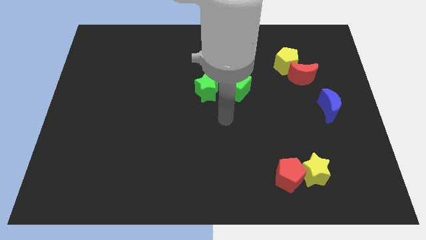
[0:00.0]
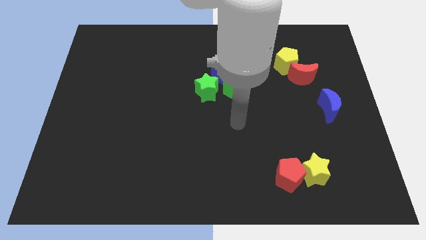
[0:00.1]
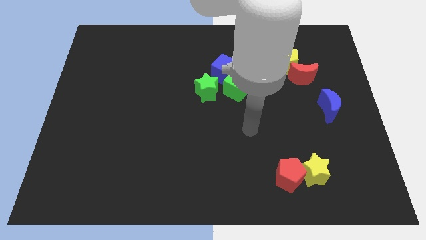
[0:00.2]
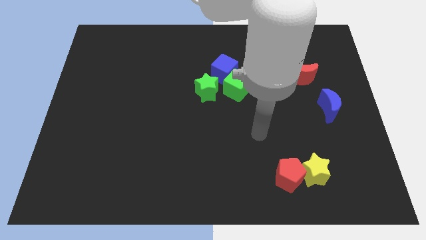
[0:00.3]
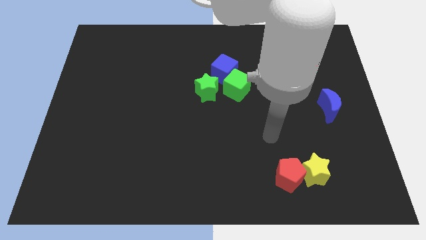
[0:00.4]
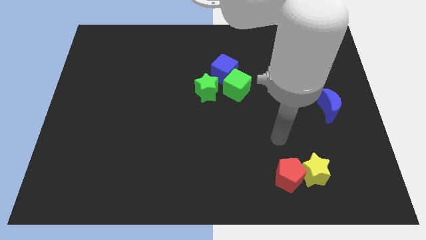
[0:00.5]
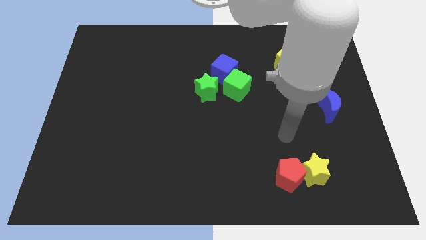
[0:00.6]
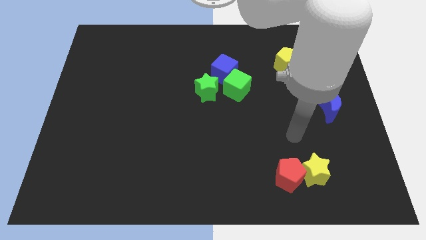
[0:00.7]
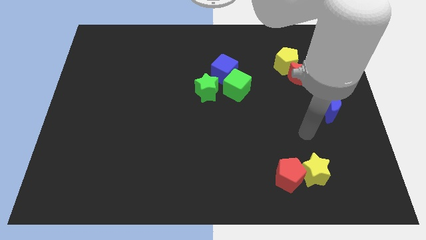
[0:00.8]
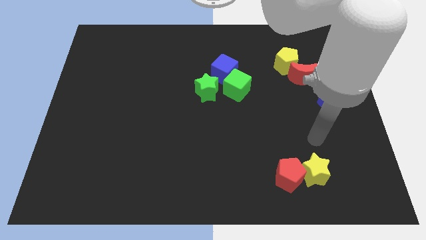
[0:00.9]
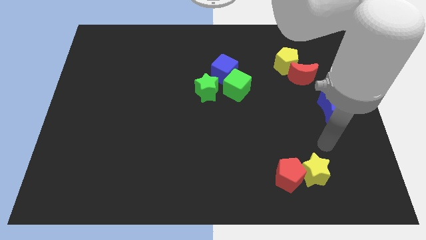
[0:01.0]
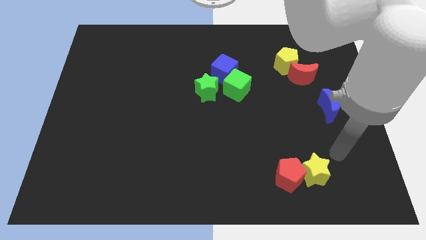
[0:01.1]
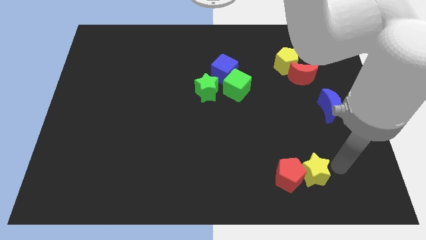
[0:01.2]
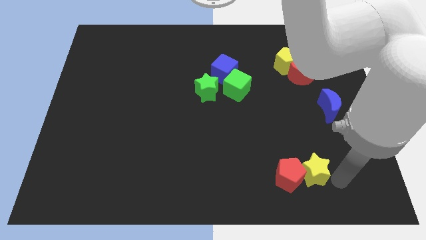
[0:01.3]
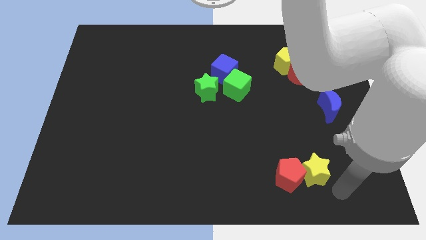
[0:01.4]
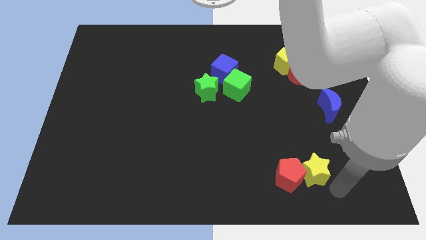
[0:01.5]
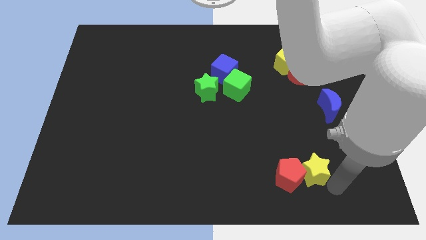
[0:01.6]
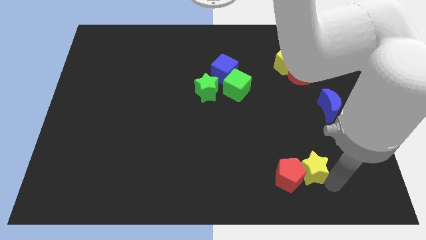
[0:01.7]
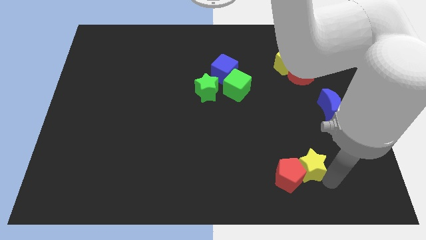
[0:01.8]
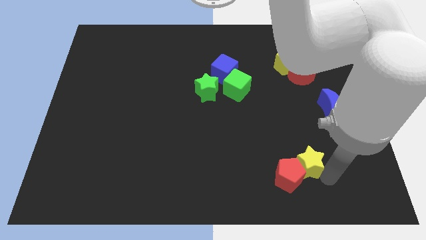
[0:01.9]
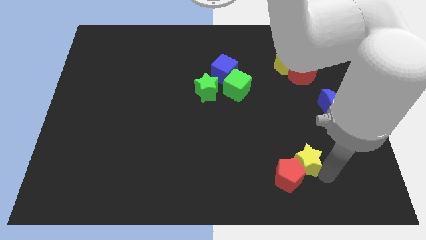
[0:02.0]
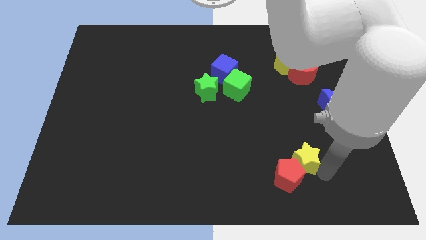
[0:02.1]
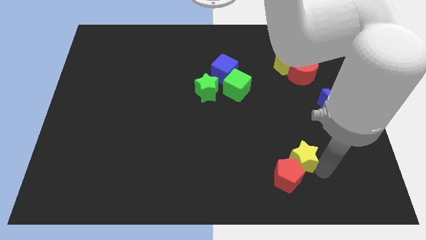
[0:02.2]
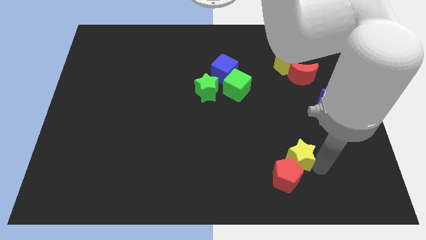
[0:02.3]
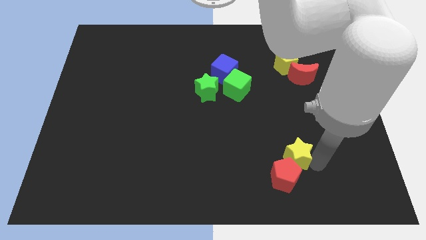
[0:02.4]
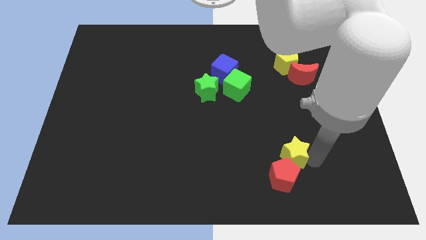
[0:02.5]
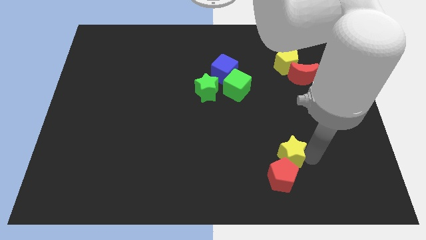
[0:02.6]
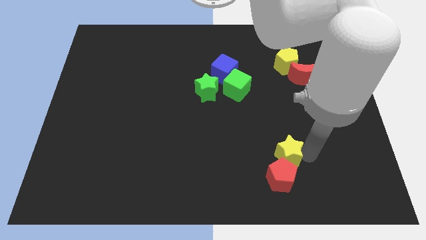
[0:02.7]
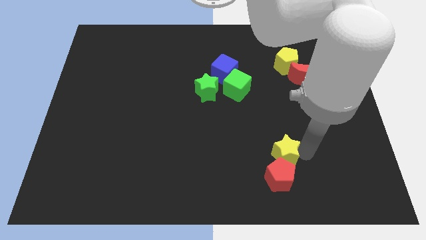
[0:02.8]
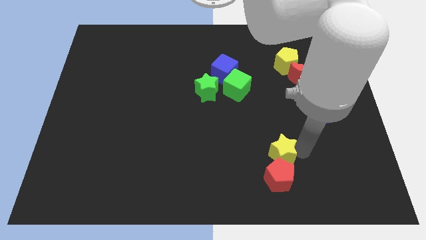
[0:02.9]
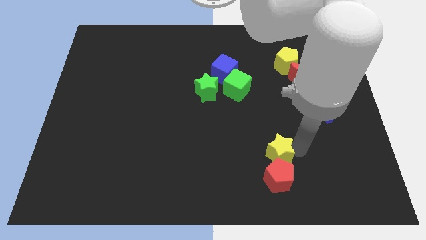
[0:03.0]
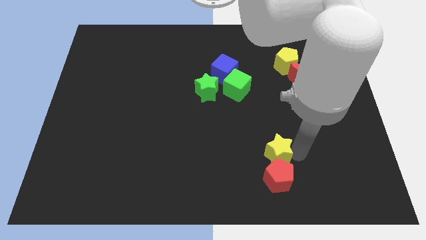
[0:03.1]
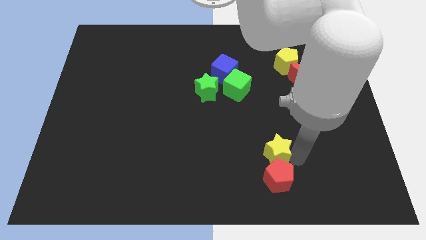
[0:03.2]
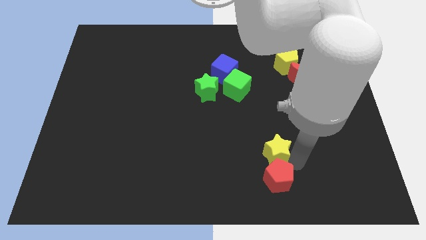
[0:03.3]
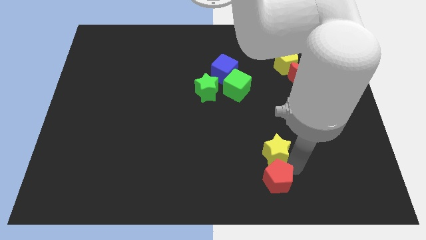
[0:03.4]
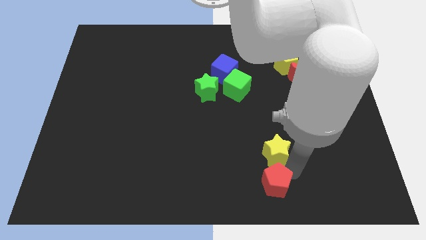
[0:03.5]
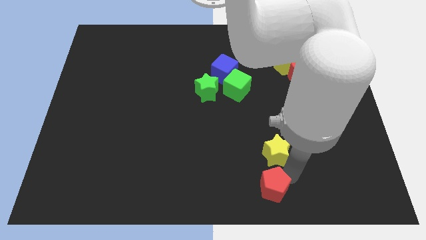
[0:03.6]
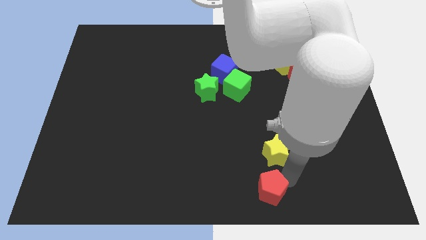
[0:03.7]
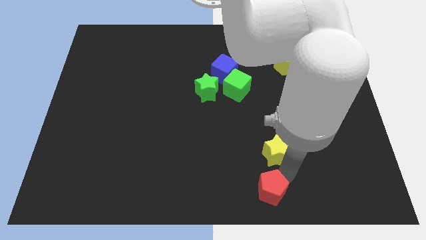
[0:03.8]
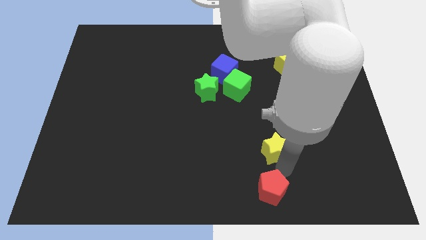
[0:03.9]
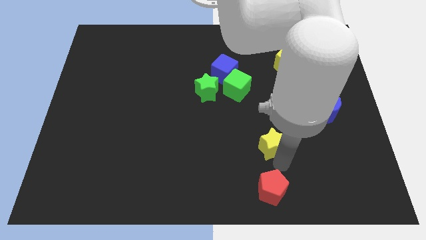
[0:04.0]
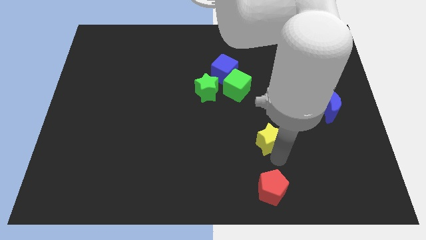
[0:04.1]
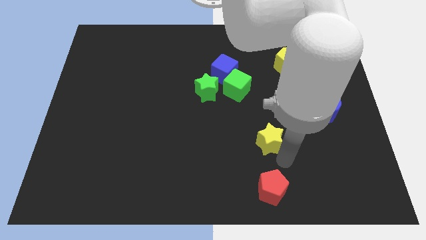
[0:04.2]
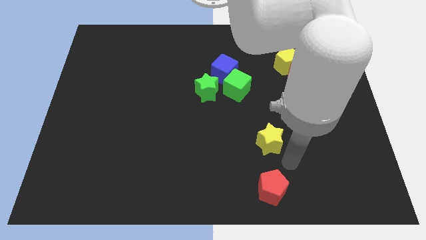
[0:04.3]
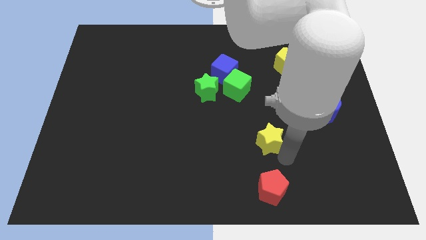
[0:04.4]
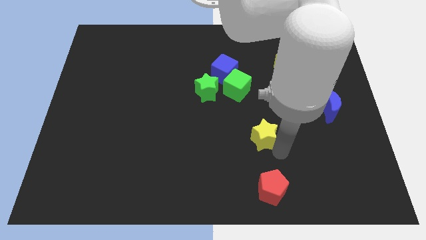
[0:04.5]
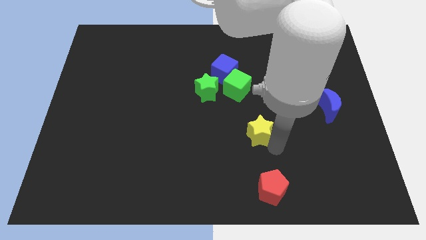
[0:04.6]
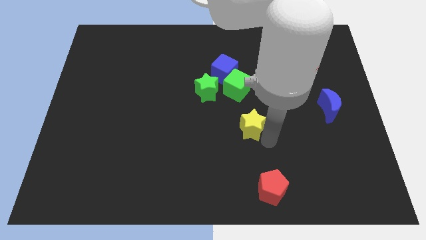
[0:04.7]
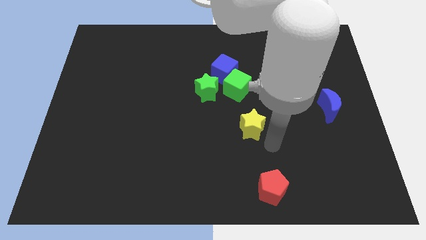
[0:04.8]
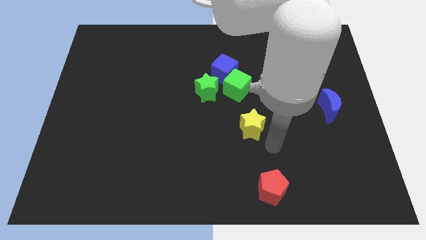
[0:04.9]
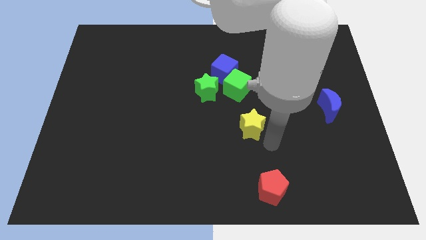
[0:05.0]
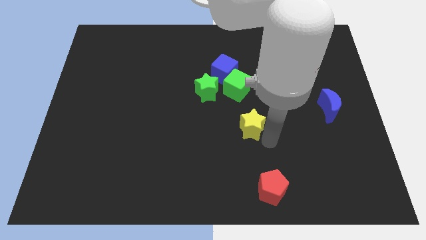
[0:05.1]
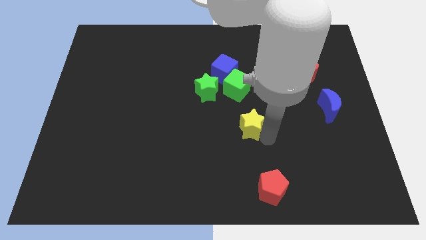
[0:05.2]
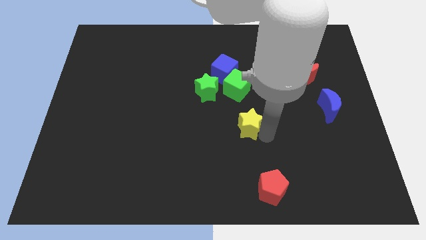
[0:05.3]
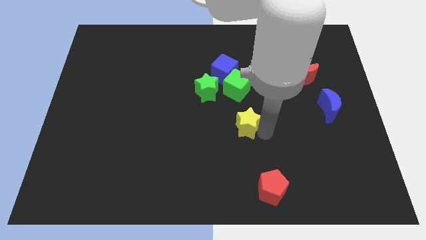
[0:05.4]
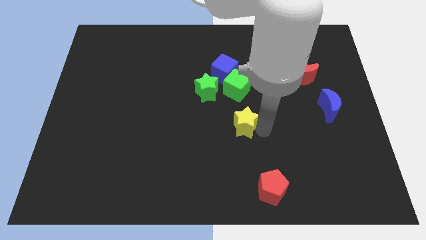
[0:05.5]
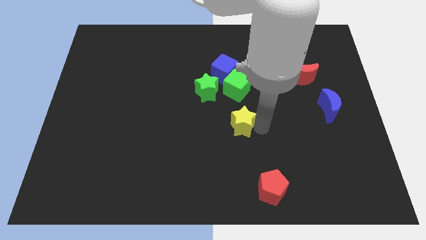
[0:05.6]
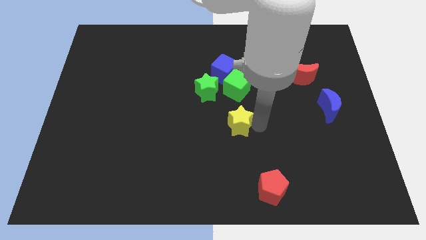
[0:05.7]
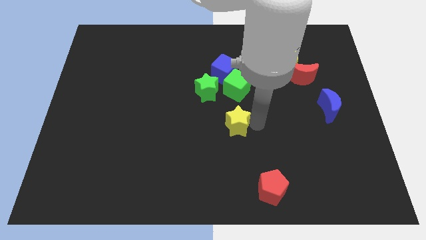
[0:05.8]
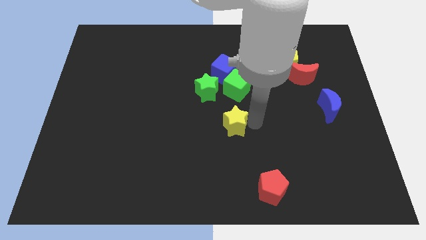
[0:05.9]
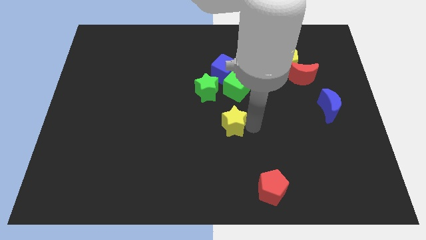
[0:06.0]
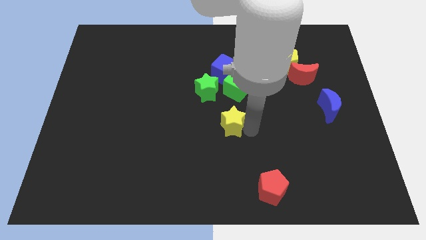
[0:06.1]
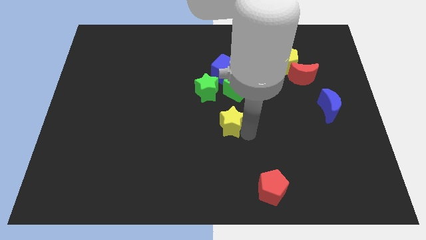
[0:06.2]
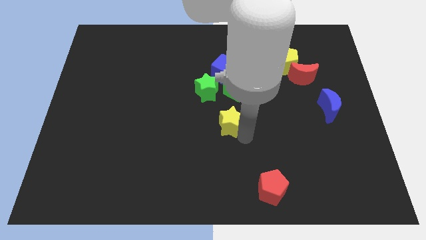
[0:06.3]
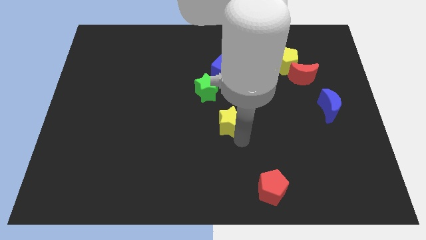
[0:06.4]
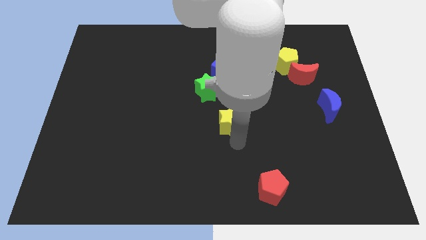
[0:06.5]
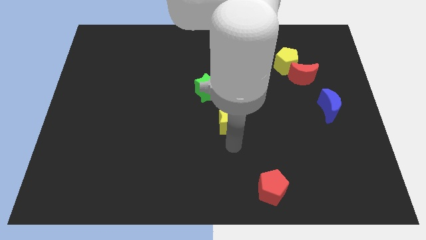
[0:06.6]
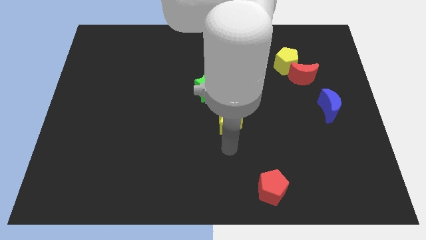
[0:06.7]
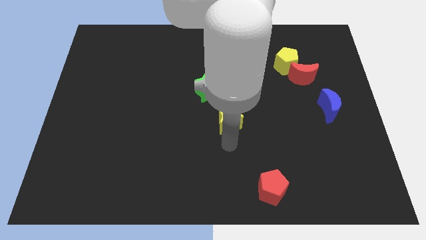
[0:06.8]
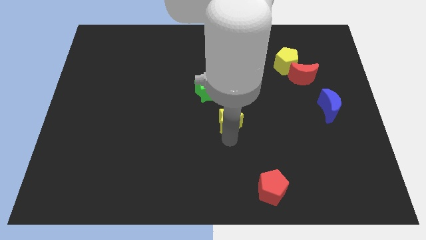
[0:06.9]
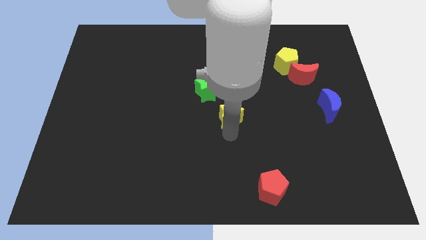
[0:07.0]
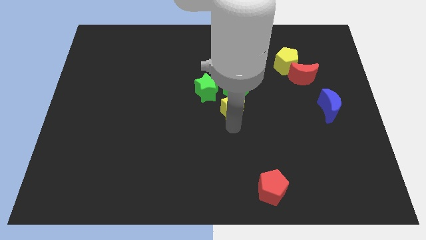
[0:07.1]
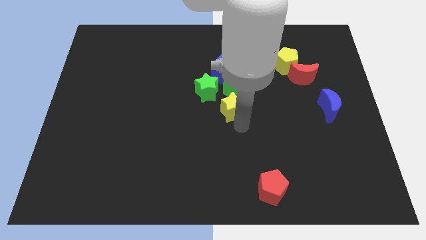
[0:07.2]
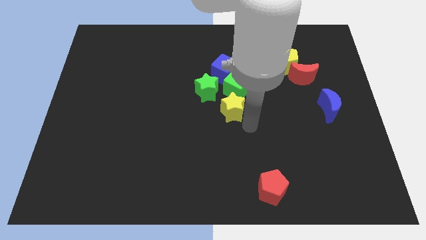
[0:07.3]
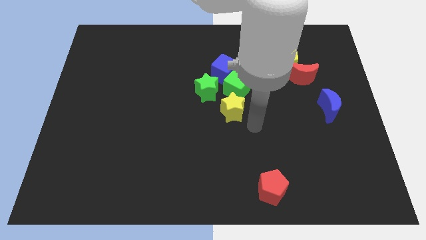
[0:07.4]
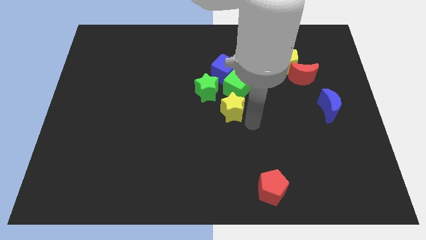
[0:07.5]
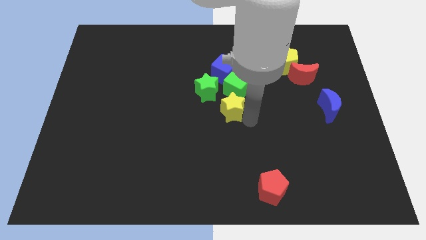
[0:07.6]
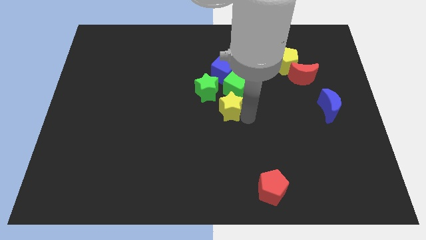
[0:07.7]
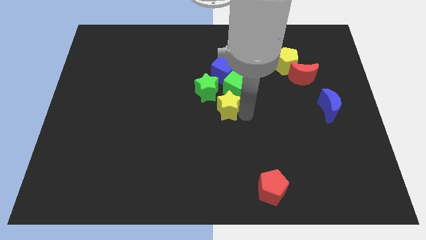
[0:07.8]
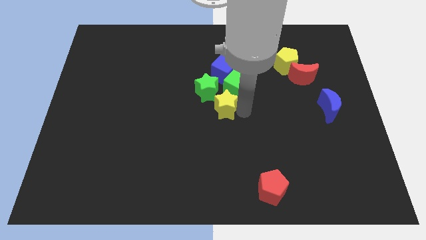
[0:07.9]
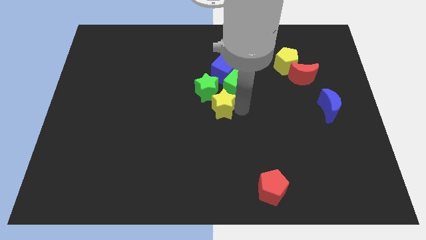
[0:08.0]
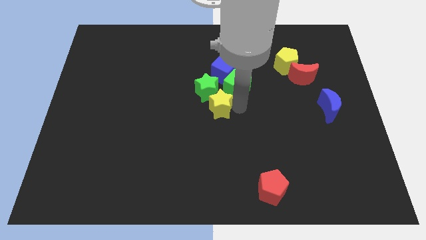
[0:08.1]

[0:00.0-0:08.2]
move the yellow star towards the green star
